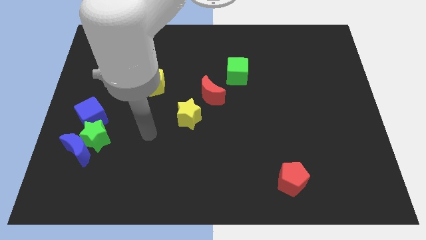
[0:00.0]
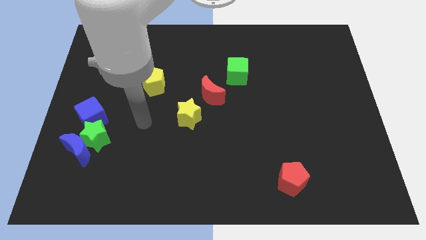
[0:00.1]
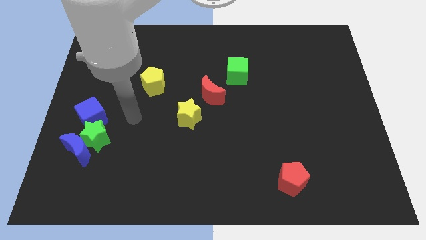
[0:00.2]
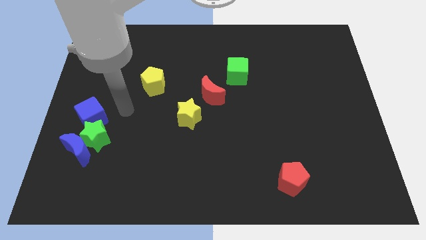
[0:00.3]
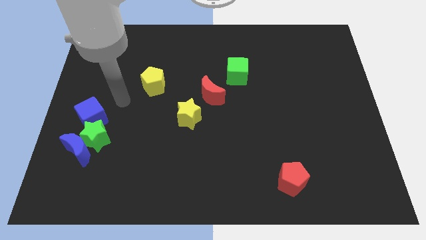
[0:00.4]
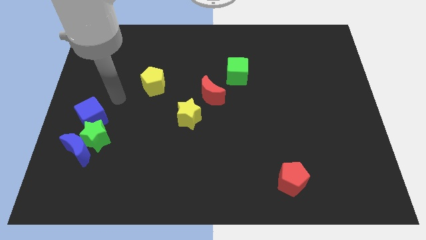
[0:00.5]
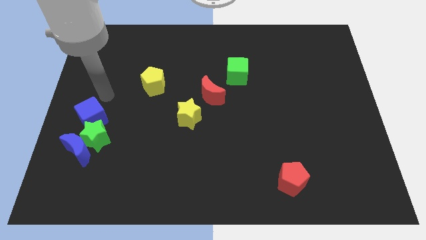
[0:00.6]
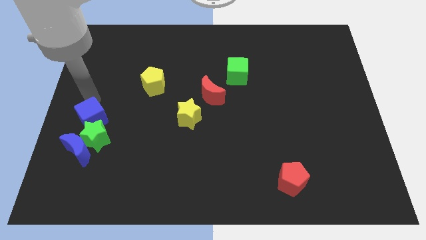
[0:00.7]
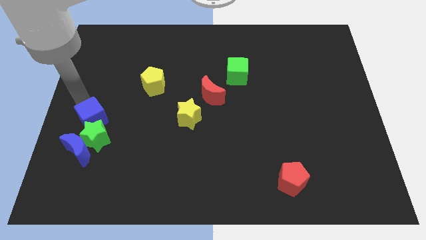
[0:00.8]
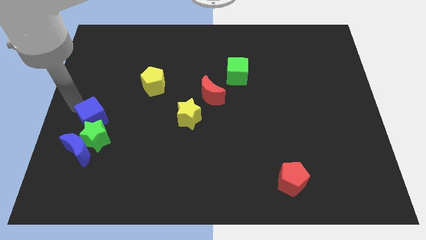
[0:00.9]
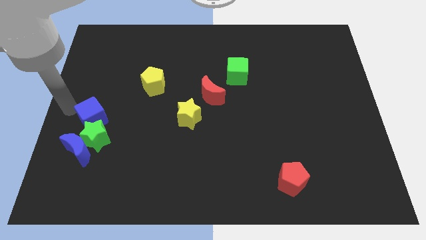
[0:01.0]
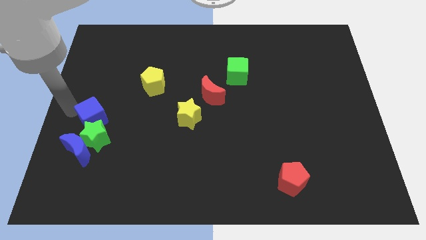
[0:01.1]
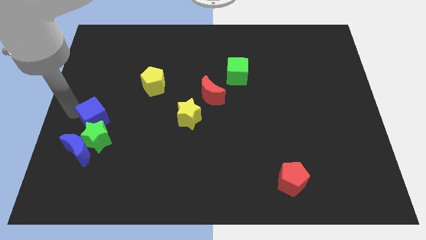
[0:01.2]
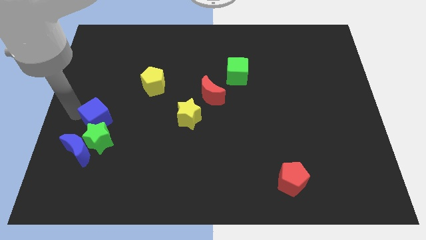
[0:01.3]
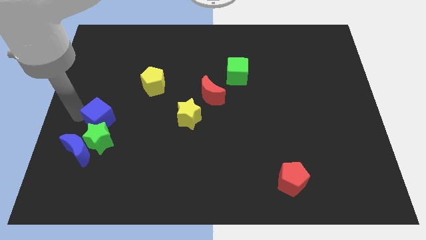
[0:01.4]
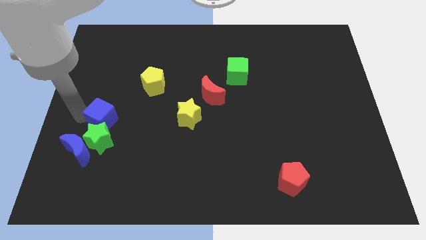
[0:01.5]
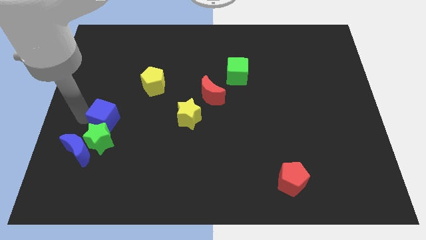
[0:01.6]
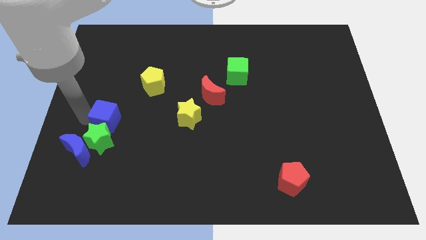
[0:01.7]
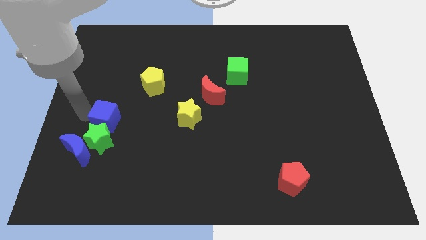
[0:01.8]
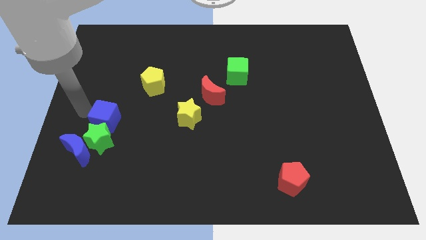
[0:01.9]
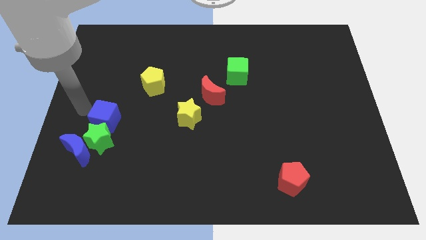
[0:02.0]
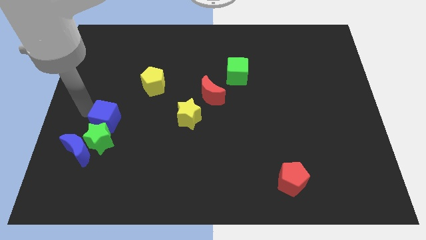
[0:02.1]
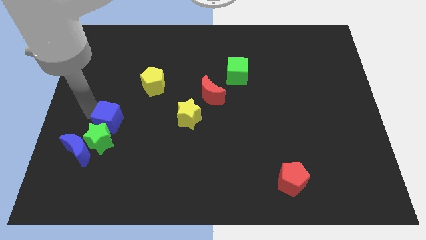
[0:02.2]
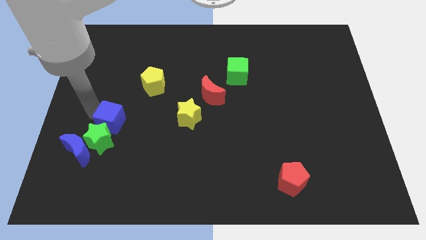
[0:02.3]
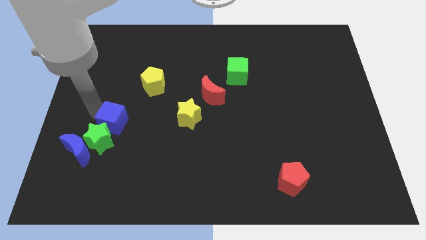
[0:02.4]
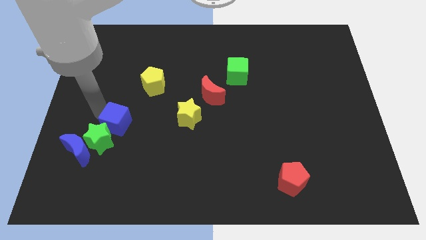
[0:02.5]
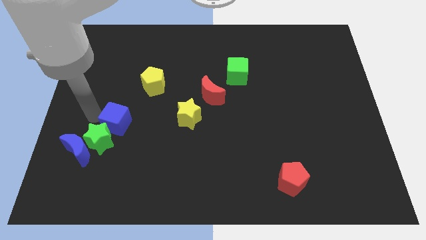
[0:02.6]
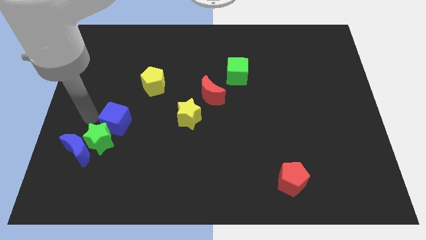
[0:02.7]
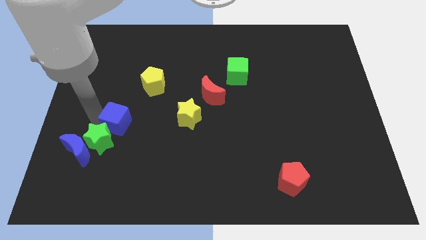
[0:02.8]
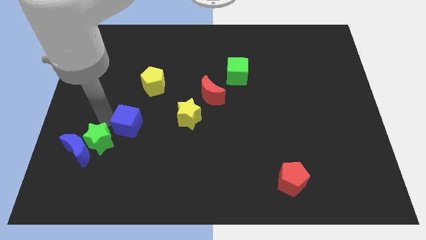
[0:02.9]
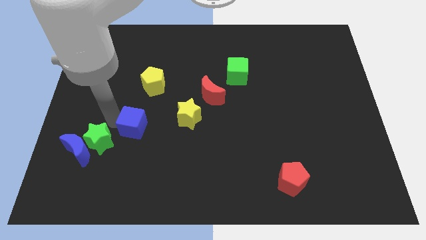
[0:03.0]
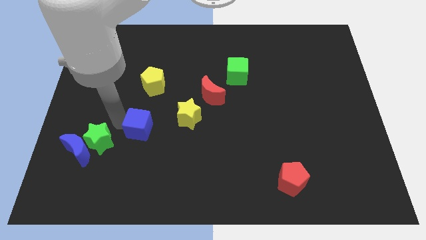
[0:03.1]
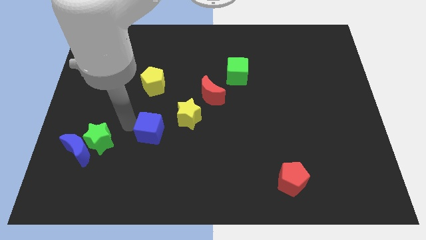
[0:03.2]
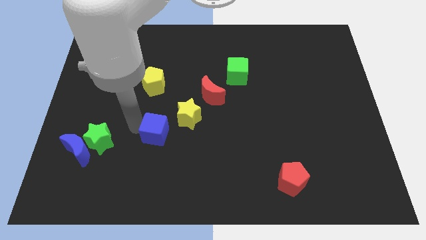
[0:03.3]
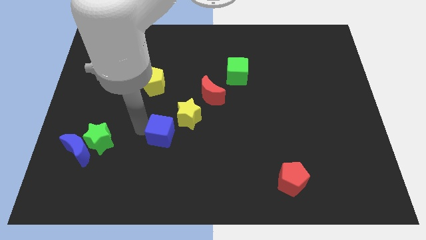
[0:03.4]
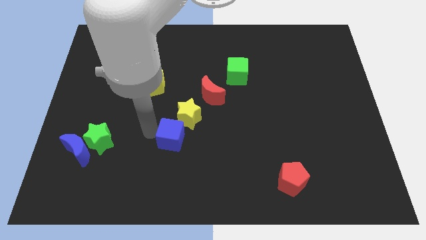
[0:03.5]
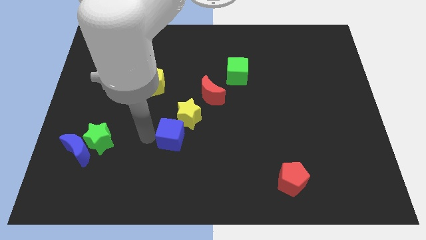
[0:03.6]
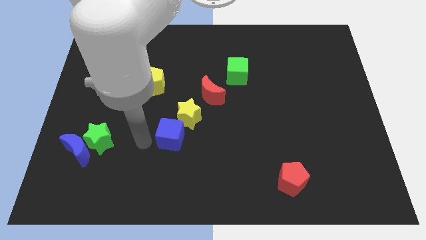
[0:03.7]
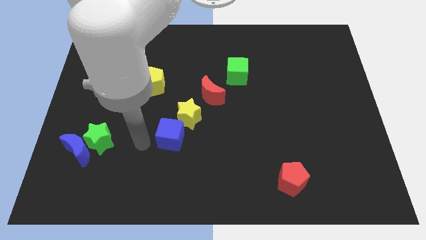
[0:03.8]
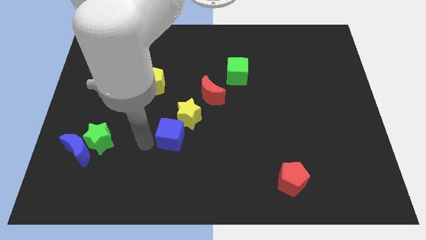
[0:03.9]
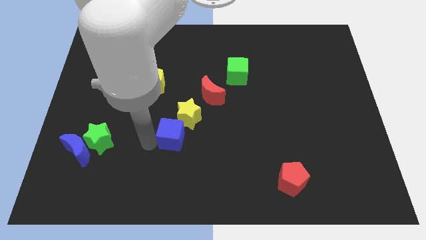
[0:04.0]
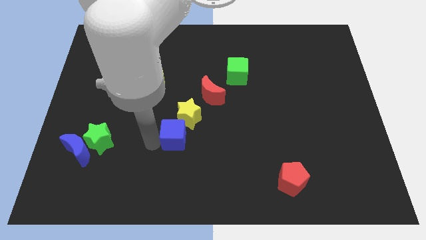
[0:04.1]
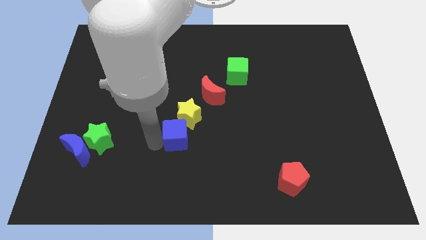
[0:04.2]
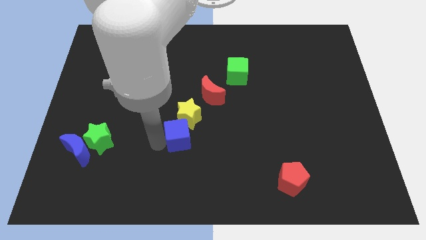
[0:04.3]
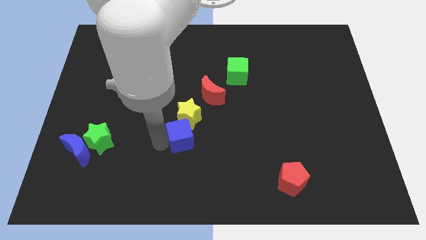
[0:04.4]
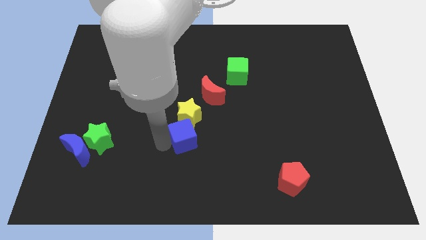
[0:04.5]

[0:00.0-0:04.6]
move the blue cube right

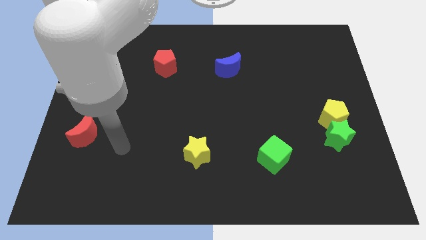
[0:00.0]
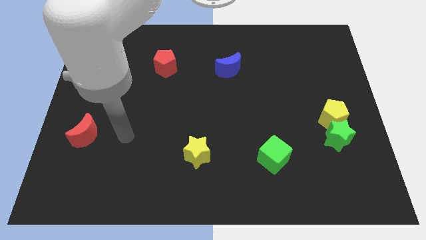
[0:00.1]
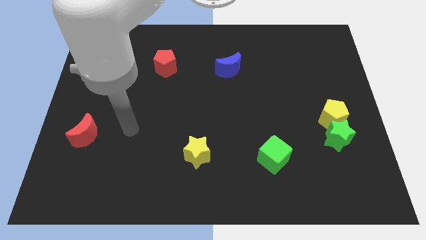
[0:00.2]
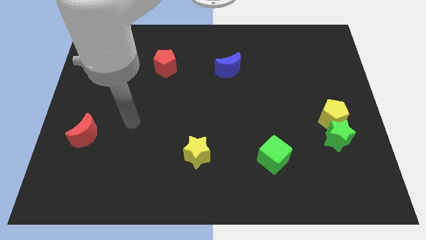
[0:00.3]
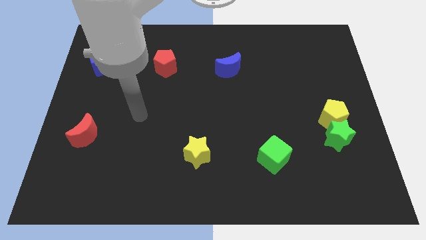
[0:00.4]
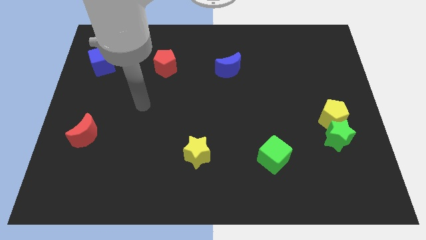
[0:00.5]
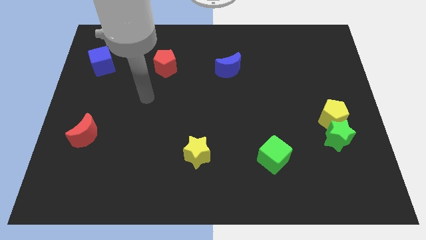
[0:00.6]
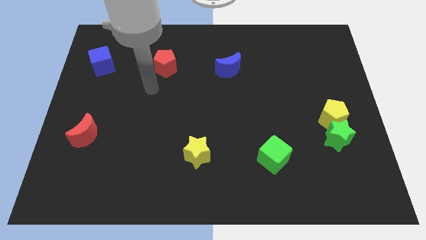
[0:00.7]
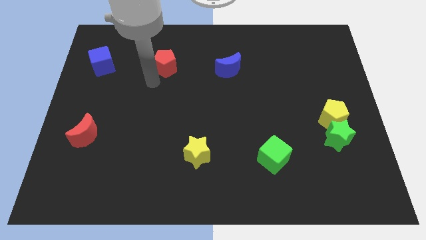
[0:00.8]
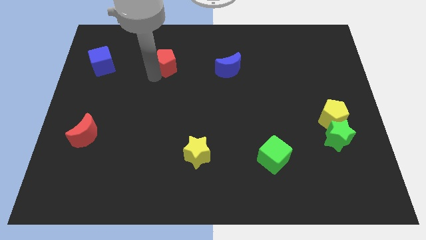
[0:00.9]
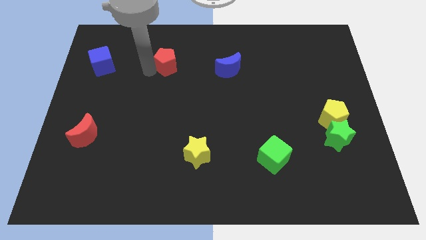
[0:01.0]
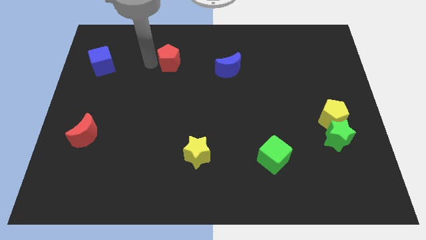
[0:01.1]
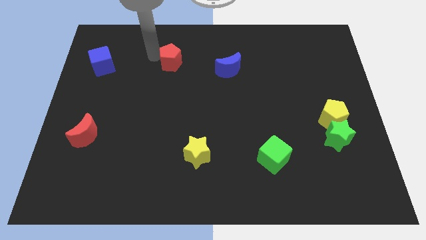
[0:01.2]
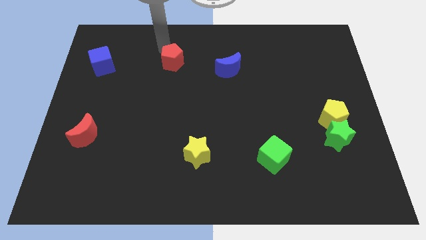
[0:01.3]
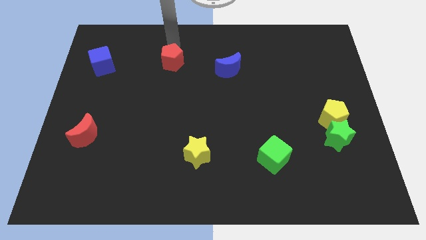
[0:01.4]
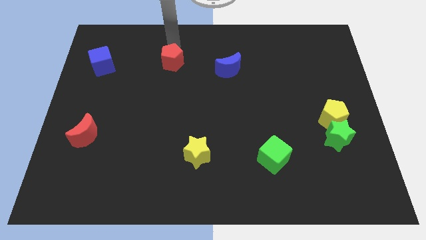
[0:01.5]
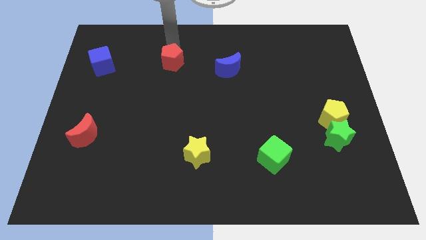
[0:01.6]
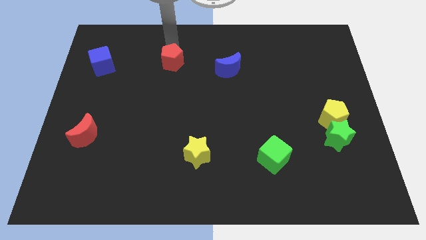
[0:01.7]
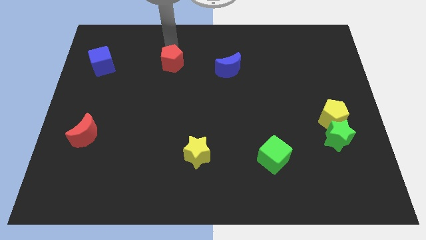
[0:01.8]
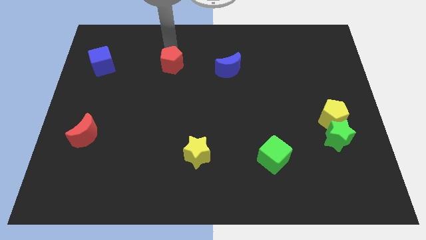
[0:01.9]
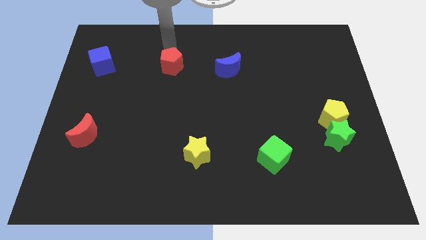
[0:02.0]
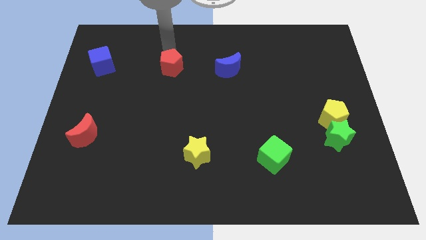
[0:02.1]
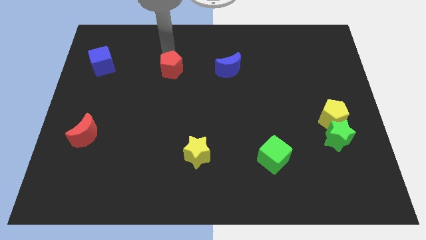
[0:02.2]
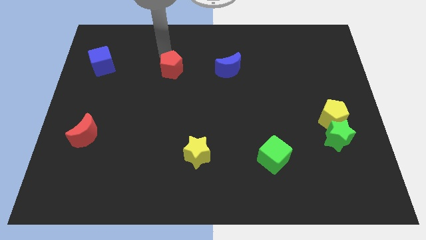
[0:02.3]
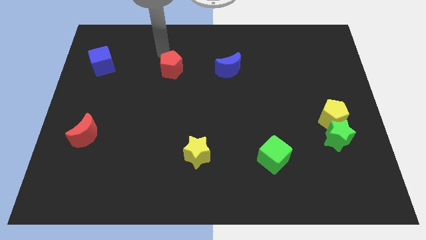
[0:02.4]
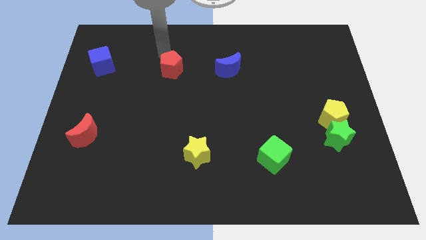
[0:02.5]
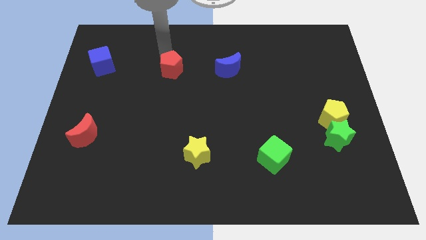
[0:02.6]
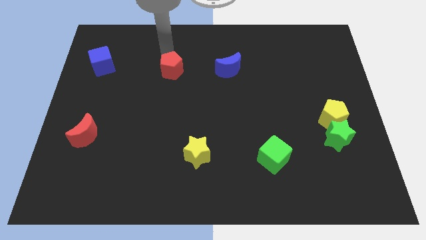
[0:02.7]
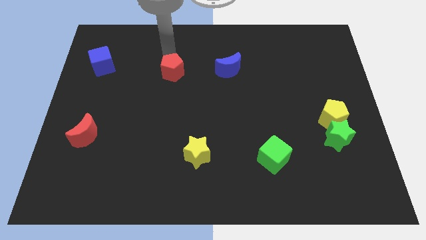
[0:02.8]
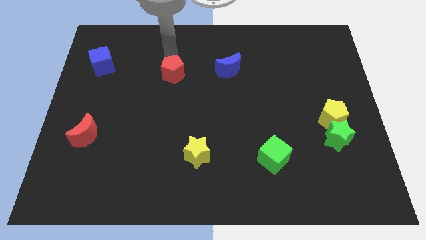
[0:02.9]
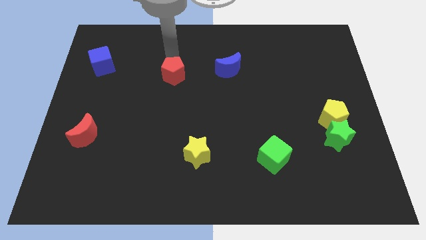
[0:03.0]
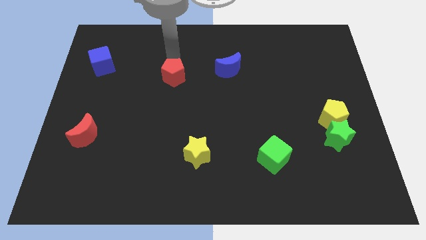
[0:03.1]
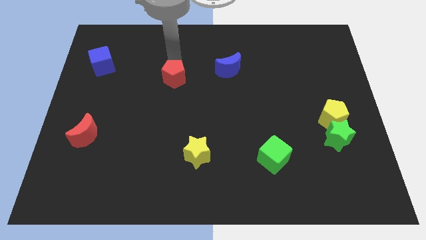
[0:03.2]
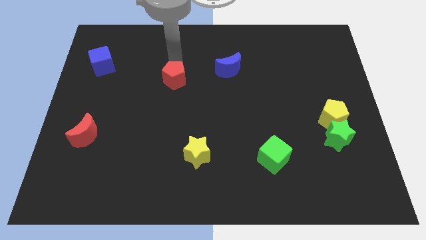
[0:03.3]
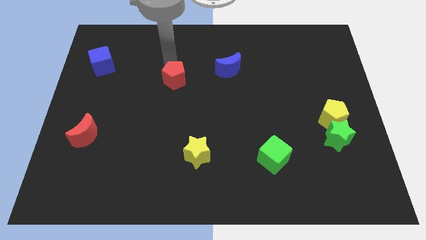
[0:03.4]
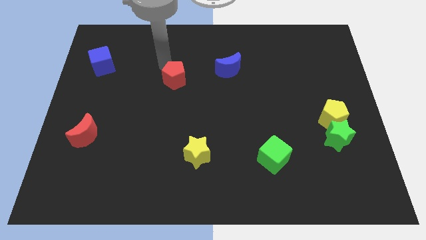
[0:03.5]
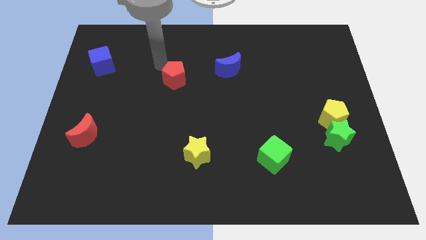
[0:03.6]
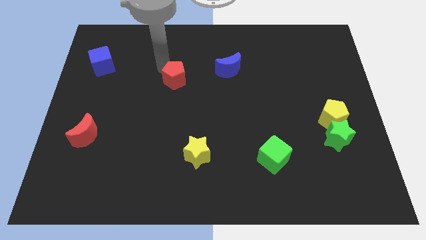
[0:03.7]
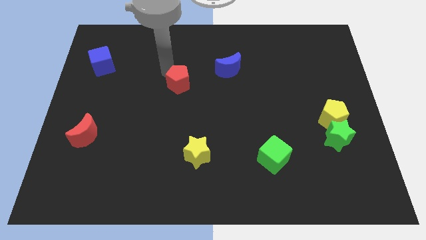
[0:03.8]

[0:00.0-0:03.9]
slightly slide the red pentagon down and to the right diagonally
